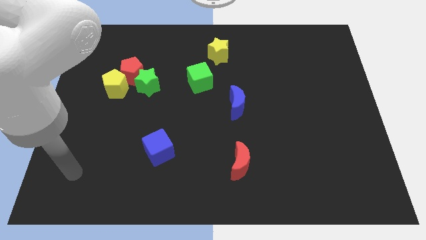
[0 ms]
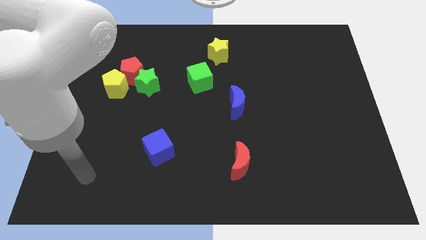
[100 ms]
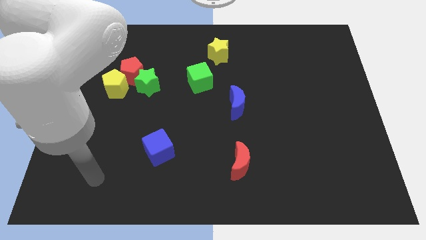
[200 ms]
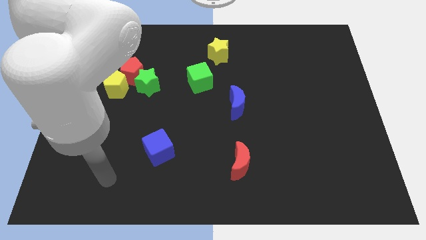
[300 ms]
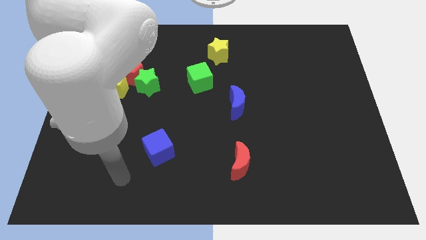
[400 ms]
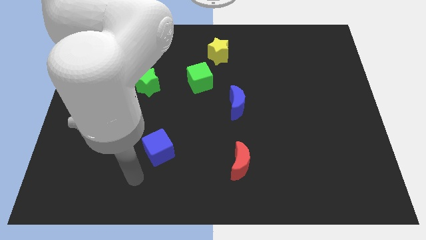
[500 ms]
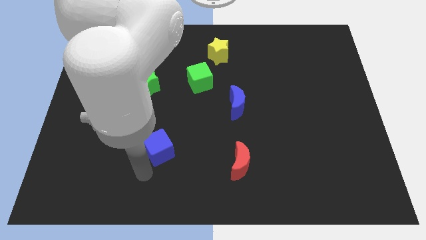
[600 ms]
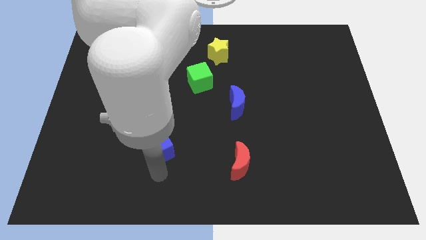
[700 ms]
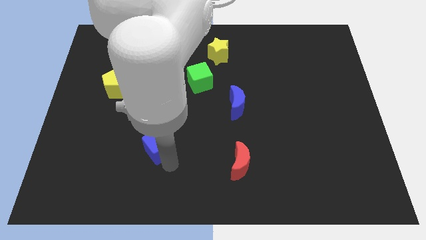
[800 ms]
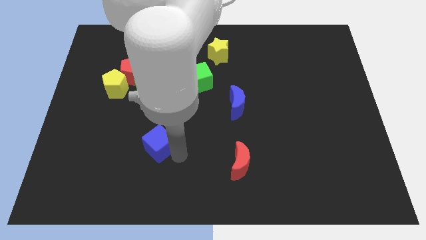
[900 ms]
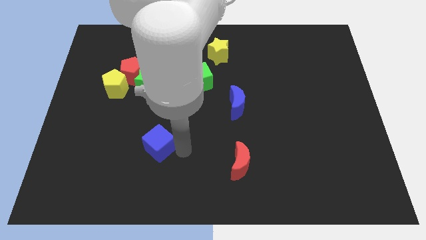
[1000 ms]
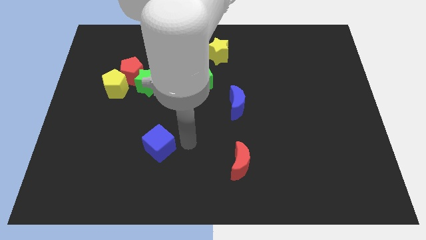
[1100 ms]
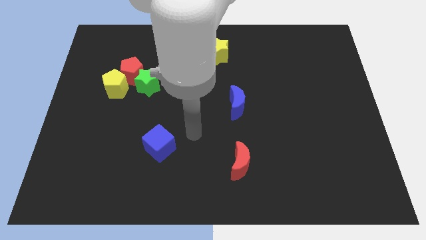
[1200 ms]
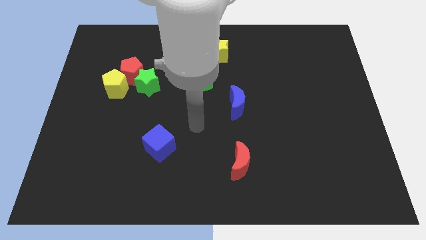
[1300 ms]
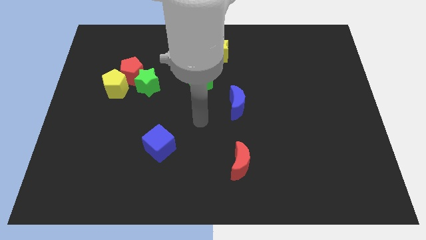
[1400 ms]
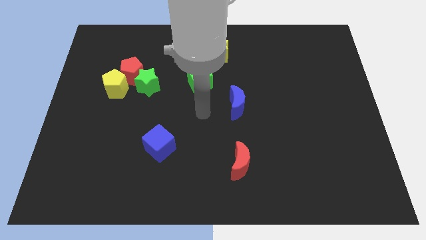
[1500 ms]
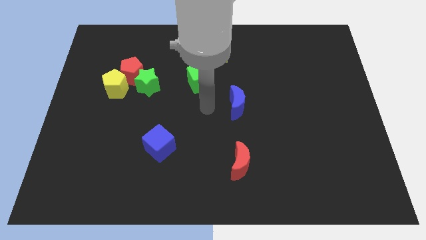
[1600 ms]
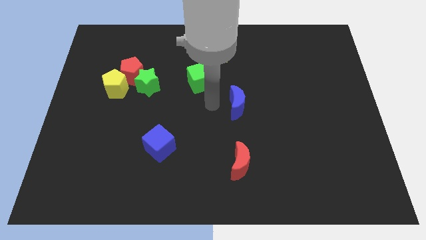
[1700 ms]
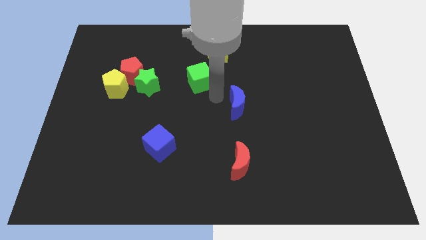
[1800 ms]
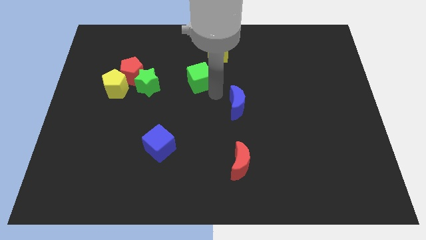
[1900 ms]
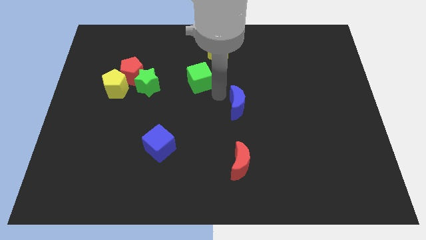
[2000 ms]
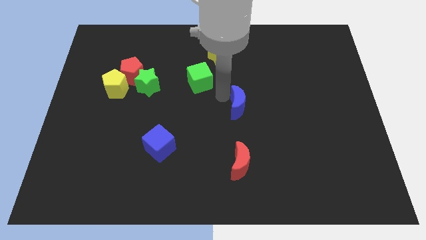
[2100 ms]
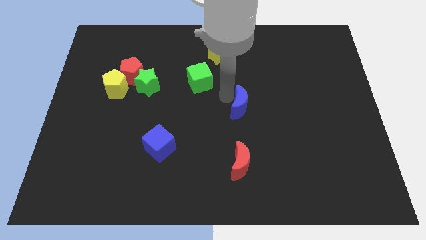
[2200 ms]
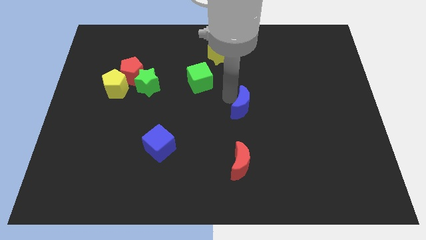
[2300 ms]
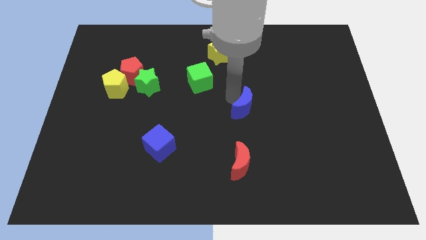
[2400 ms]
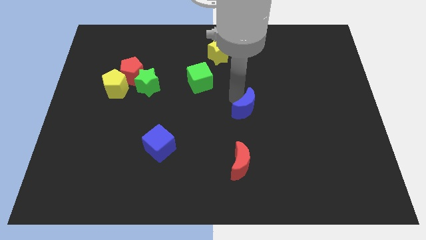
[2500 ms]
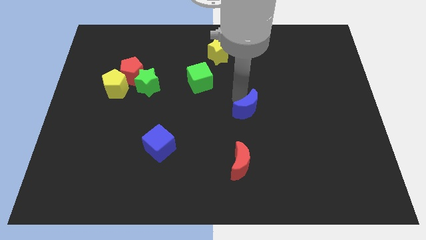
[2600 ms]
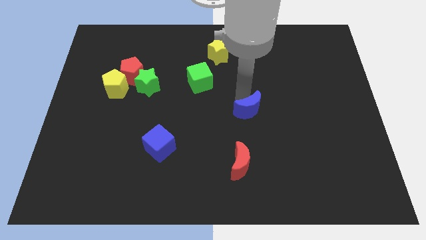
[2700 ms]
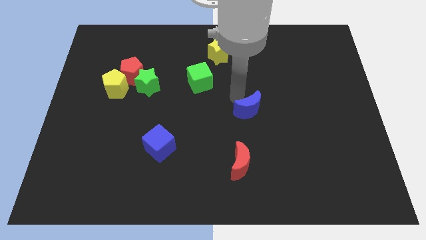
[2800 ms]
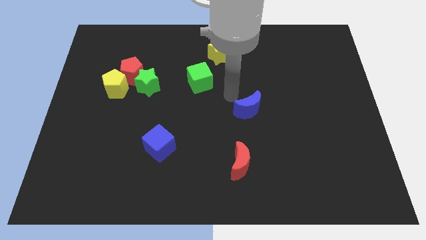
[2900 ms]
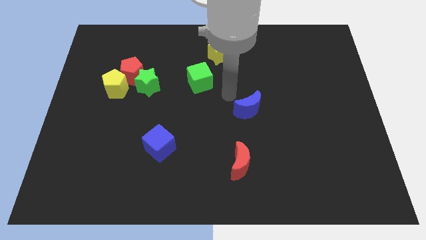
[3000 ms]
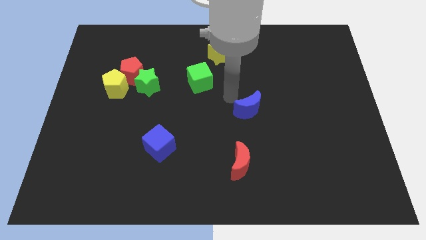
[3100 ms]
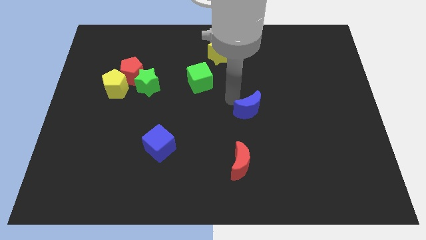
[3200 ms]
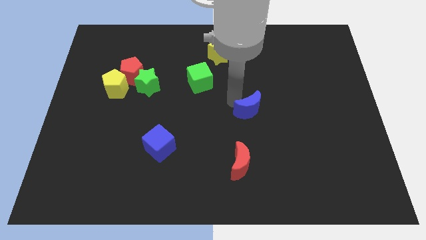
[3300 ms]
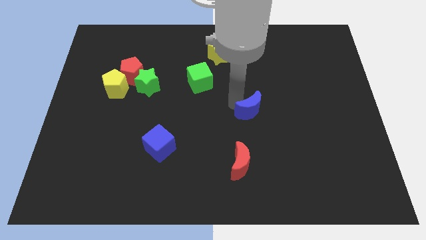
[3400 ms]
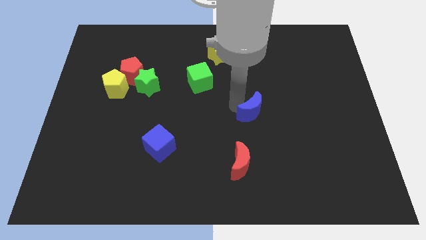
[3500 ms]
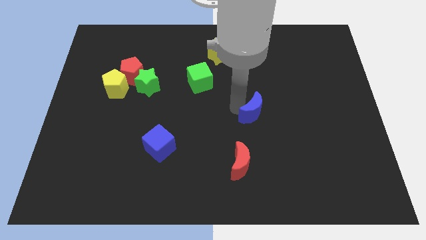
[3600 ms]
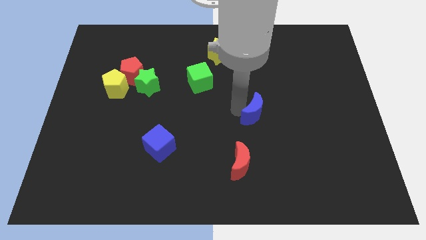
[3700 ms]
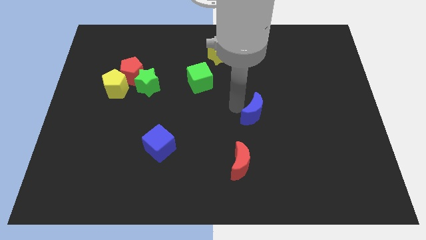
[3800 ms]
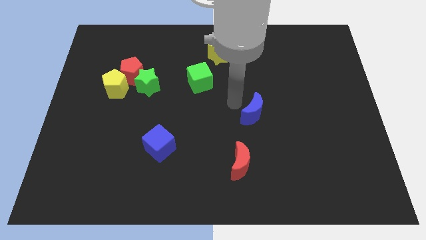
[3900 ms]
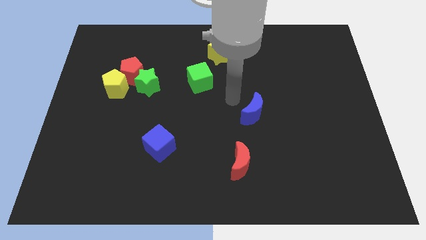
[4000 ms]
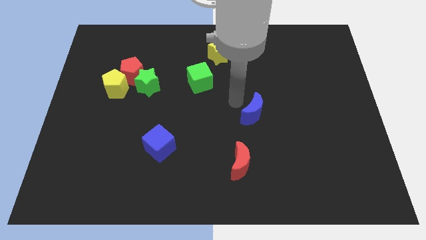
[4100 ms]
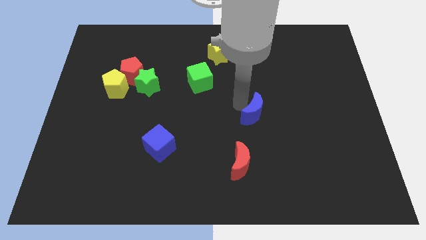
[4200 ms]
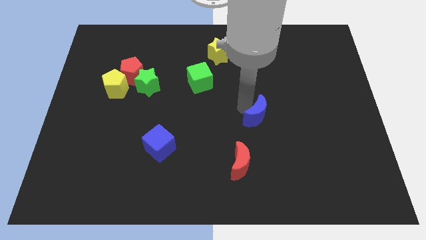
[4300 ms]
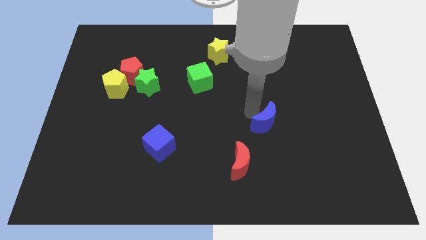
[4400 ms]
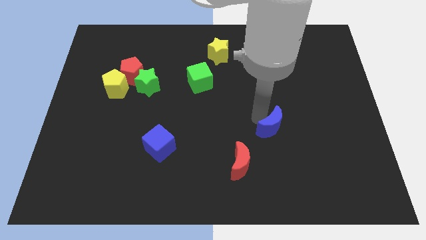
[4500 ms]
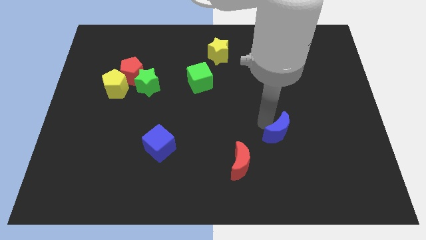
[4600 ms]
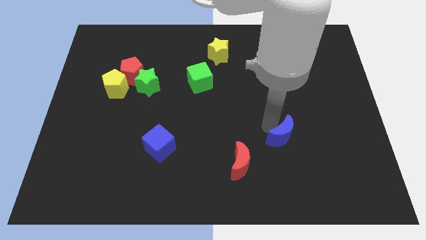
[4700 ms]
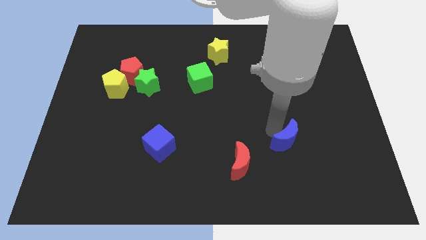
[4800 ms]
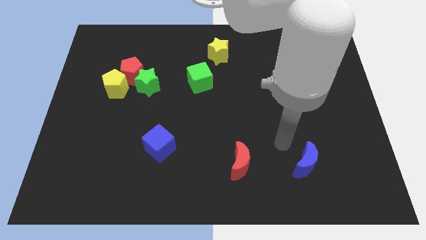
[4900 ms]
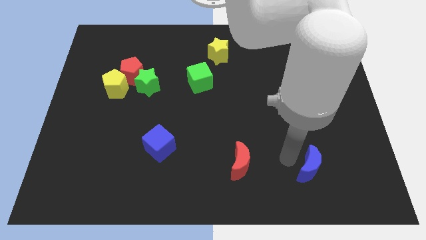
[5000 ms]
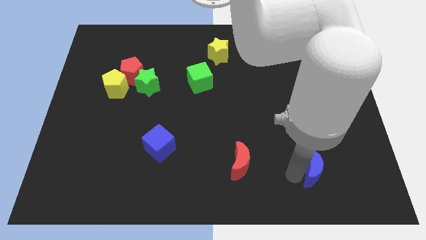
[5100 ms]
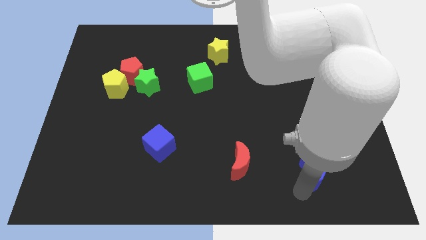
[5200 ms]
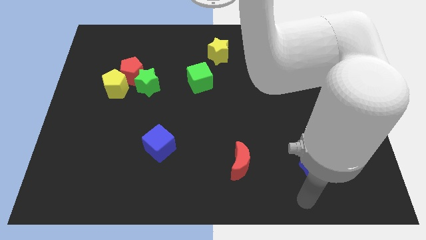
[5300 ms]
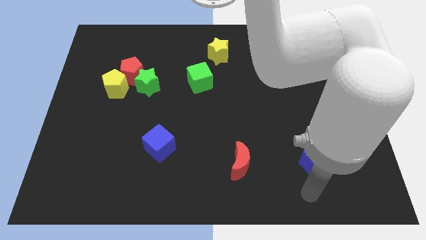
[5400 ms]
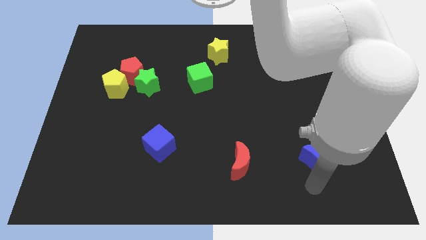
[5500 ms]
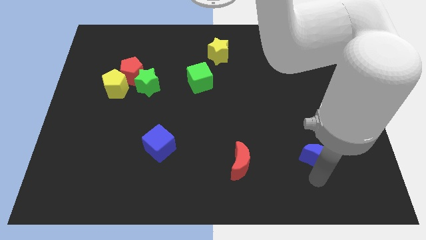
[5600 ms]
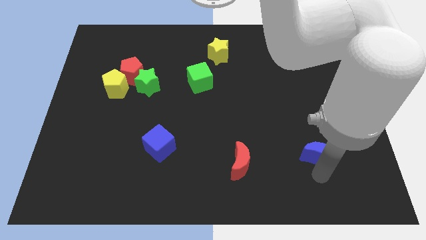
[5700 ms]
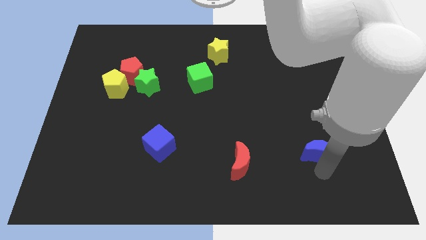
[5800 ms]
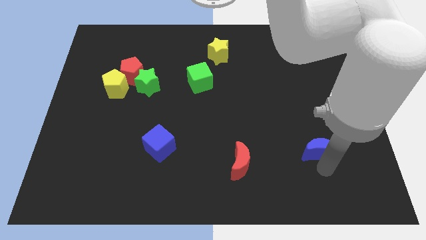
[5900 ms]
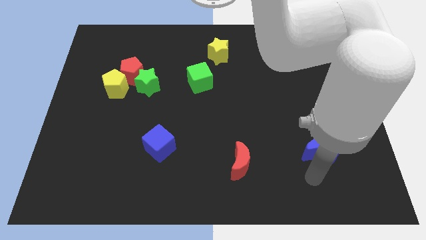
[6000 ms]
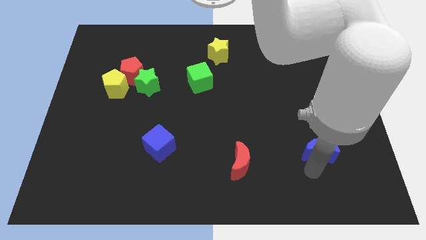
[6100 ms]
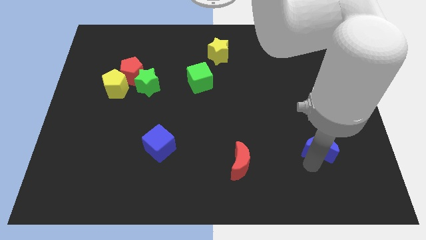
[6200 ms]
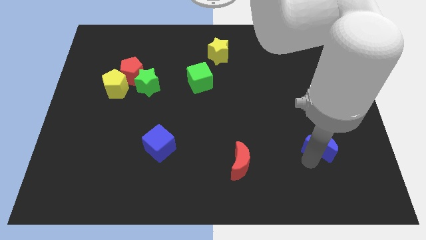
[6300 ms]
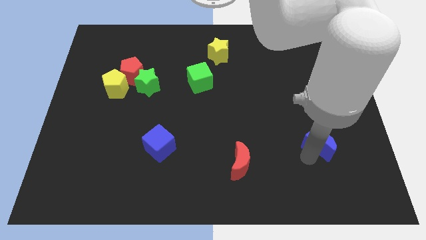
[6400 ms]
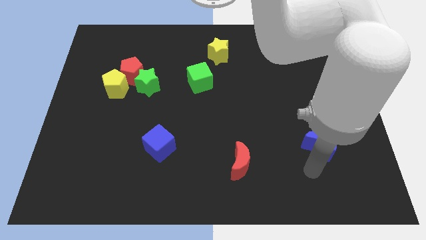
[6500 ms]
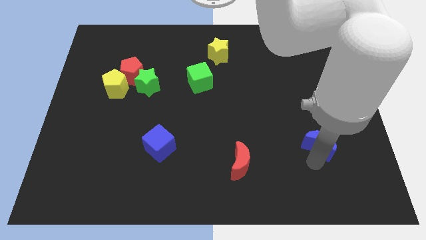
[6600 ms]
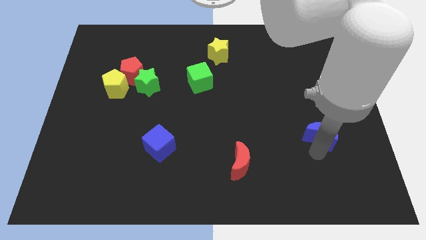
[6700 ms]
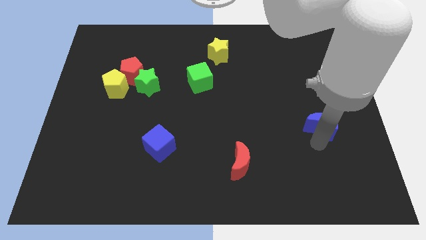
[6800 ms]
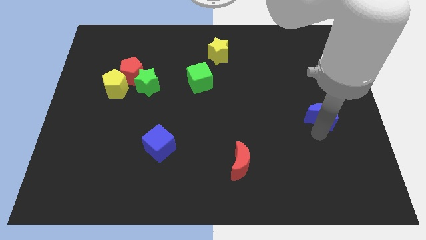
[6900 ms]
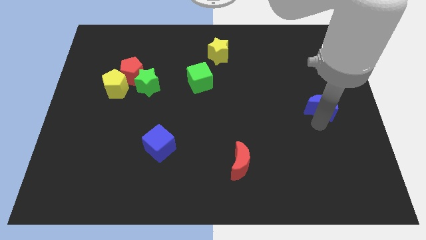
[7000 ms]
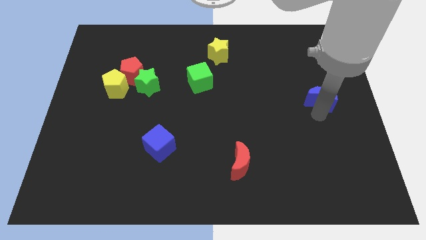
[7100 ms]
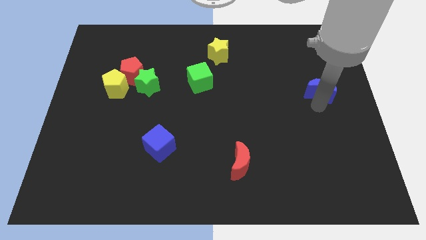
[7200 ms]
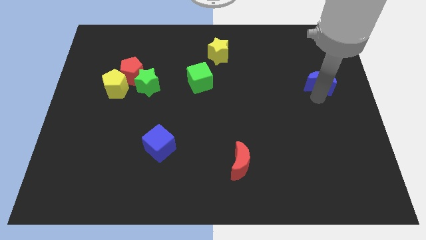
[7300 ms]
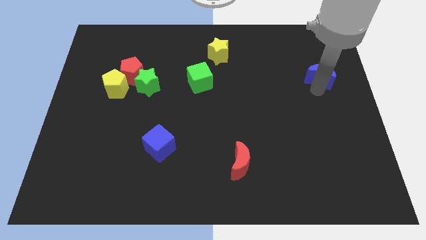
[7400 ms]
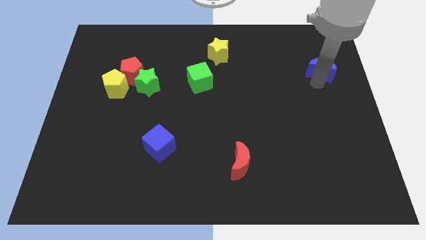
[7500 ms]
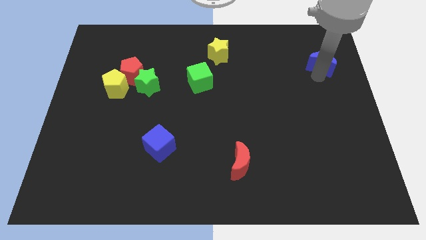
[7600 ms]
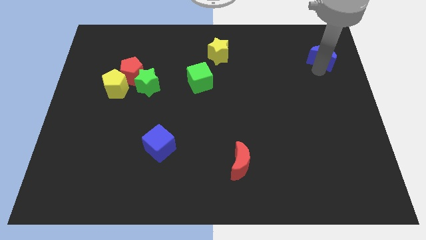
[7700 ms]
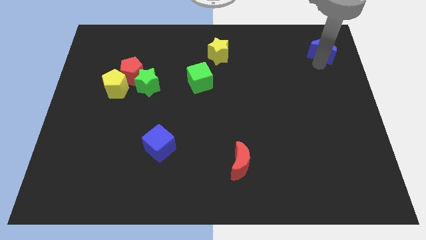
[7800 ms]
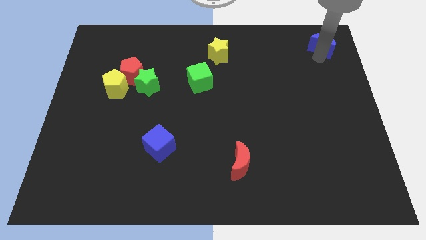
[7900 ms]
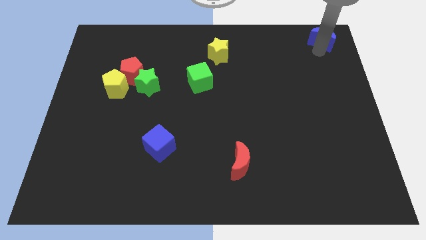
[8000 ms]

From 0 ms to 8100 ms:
push the blue moon to the upper right corner
